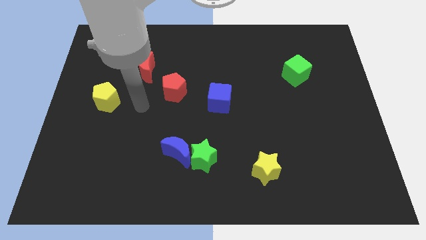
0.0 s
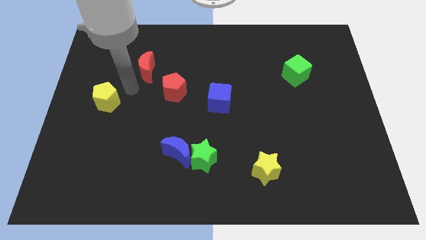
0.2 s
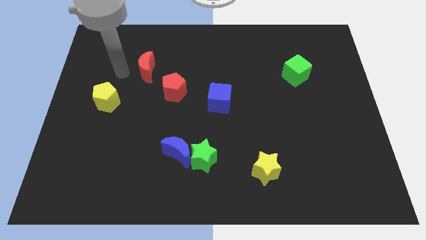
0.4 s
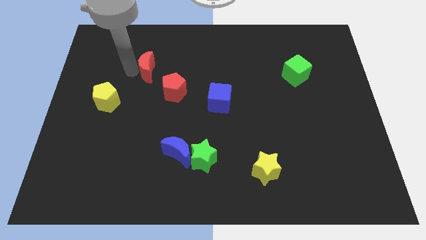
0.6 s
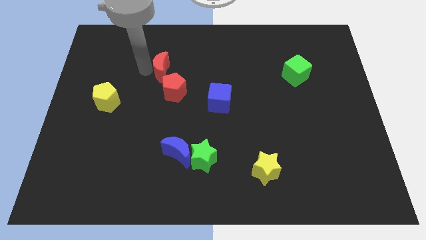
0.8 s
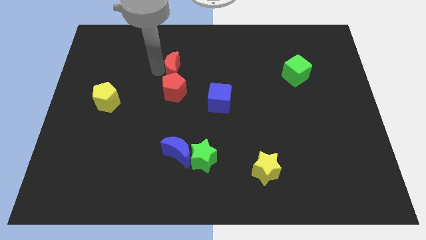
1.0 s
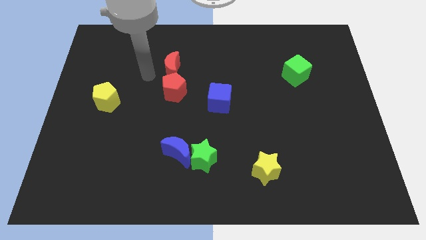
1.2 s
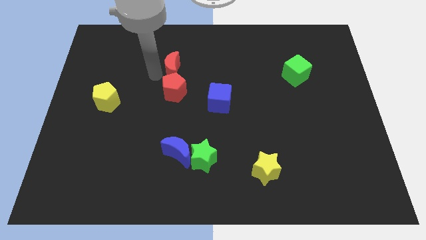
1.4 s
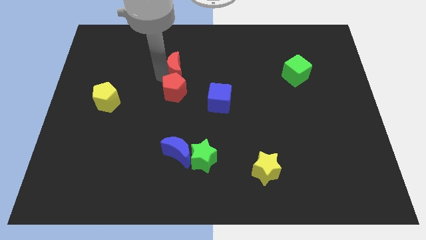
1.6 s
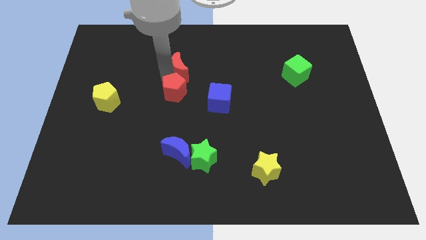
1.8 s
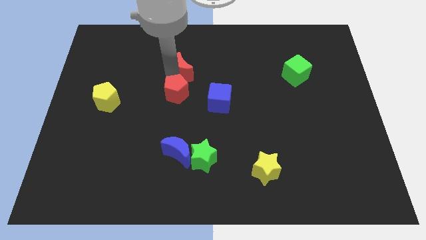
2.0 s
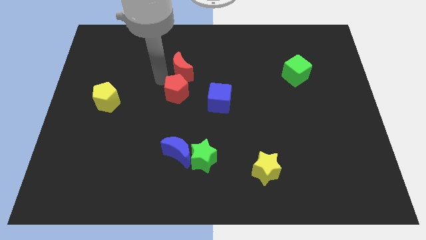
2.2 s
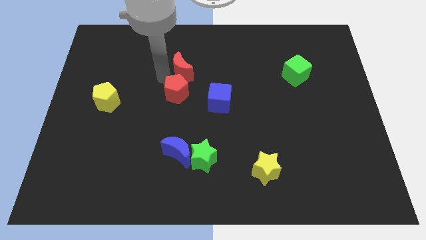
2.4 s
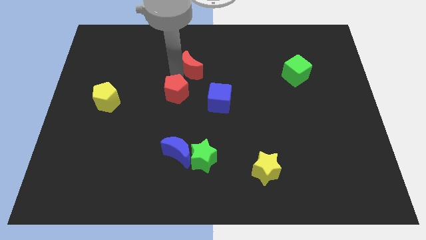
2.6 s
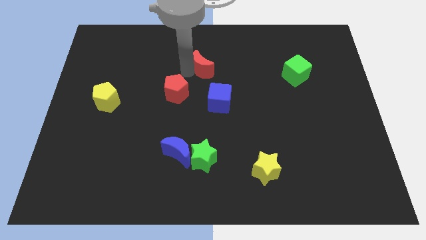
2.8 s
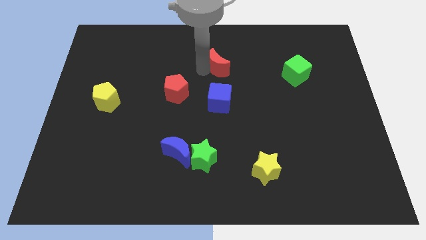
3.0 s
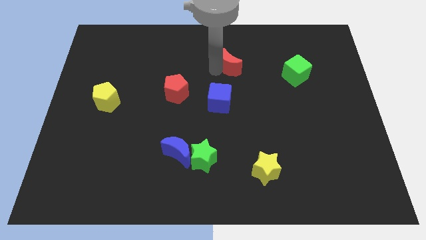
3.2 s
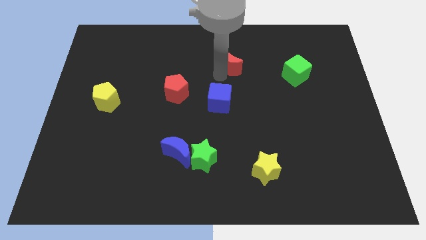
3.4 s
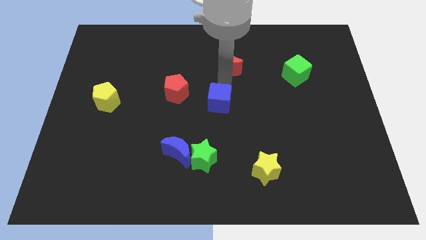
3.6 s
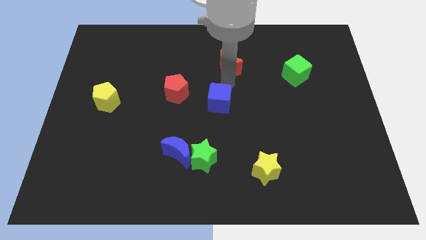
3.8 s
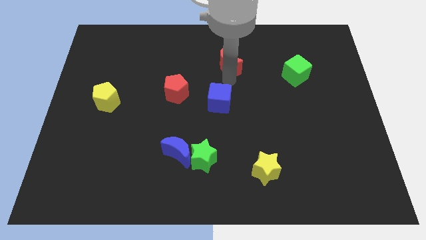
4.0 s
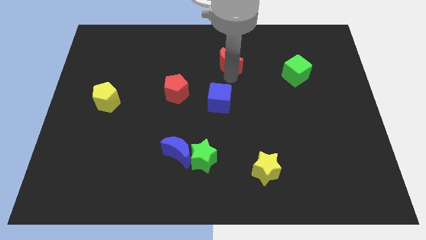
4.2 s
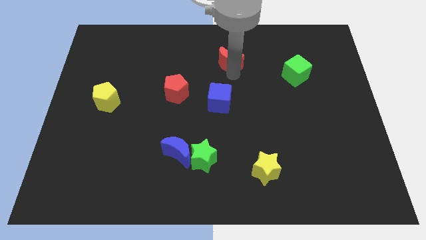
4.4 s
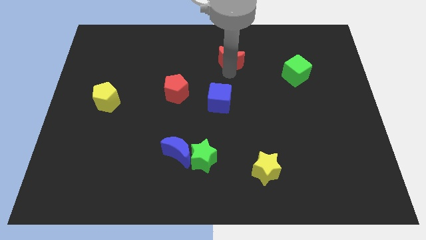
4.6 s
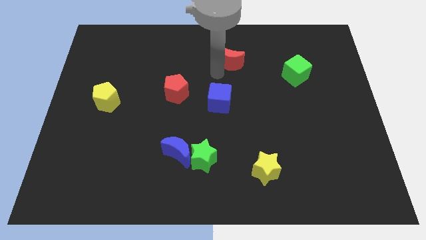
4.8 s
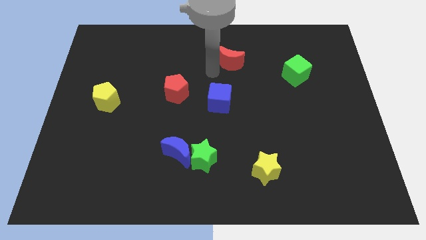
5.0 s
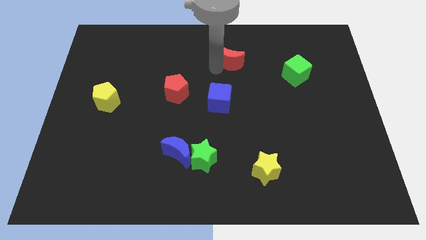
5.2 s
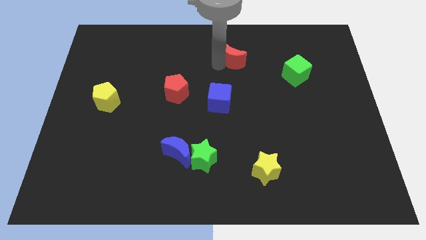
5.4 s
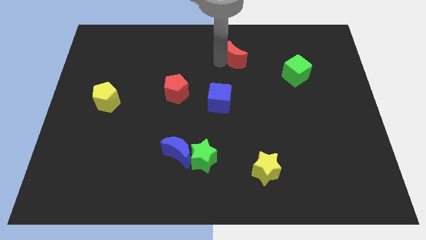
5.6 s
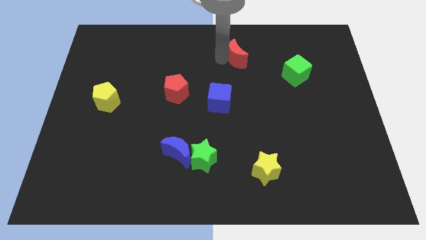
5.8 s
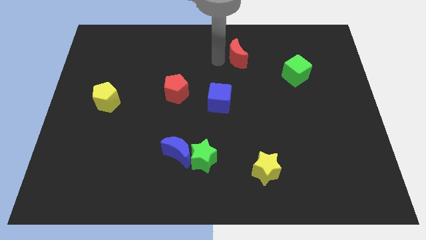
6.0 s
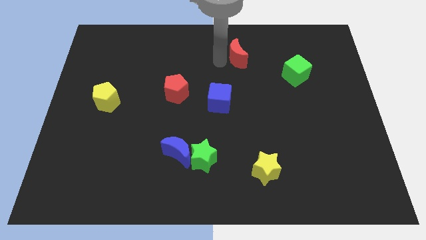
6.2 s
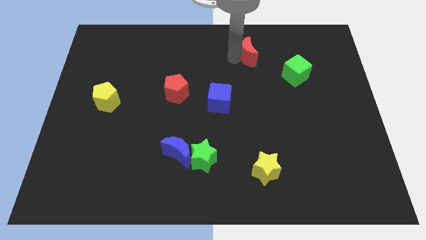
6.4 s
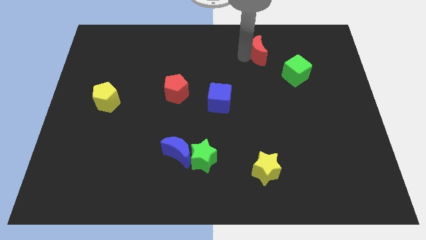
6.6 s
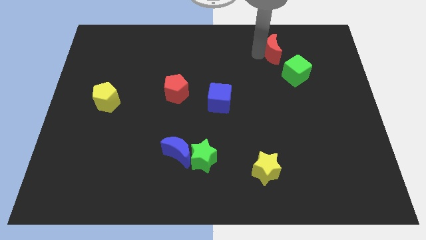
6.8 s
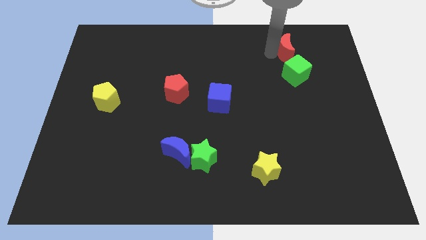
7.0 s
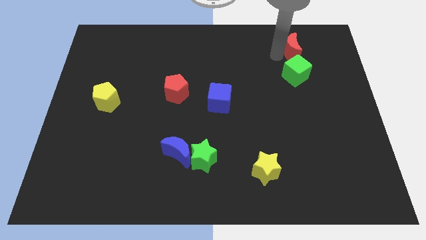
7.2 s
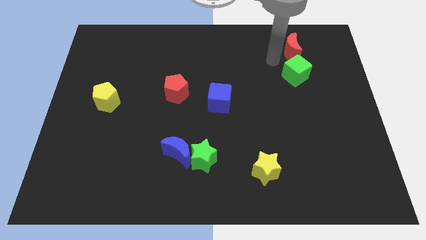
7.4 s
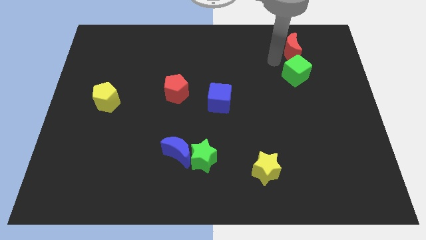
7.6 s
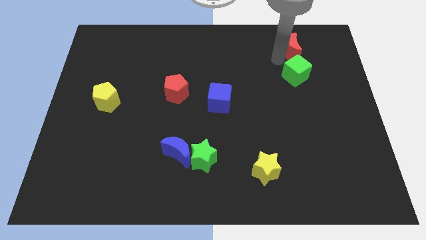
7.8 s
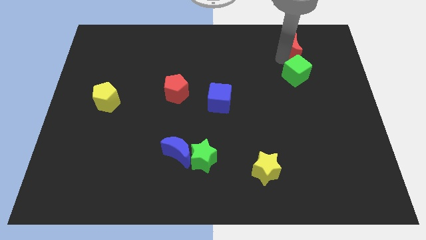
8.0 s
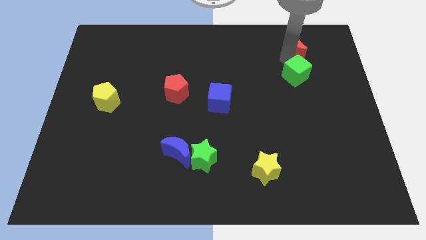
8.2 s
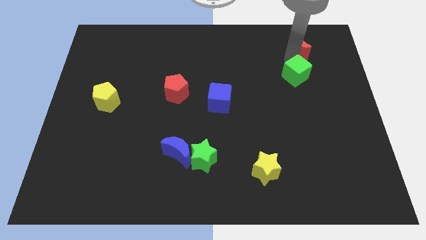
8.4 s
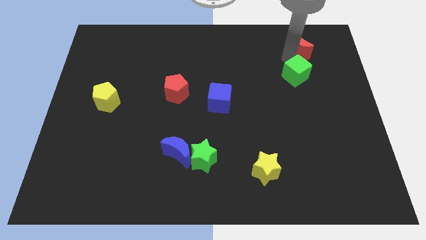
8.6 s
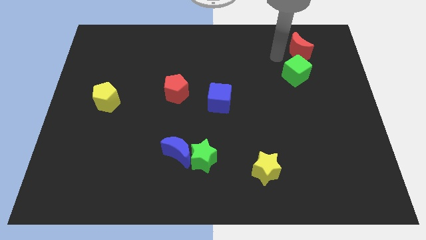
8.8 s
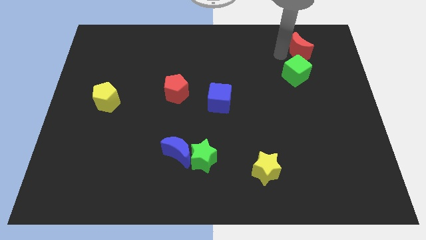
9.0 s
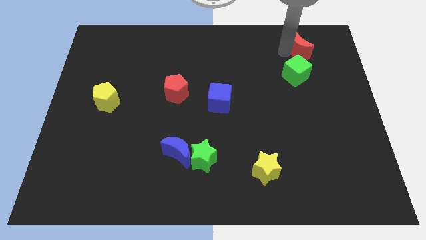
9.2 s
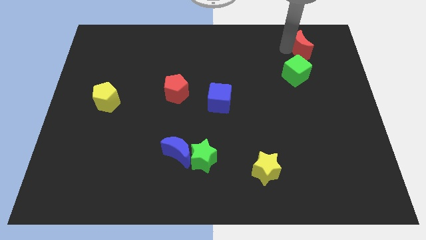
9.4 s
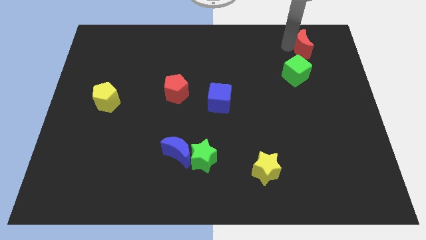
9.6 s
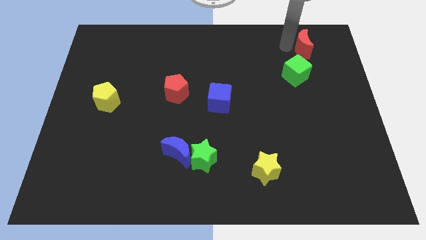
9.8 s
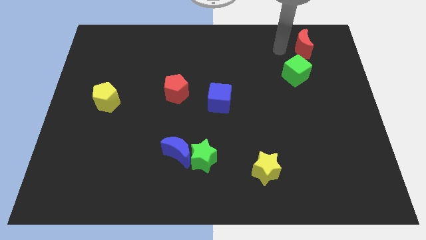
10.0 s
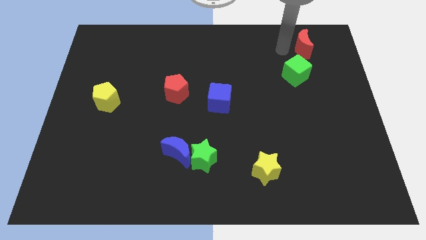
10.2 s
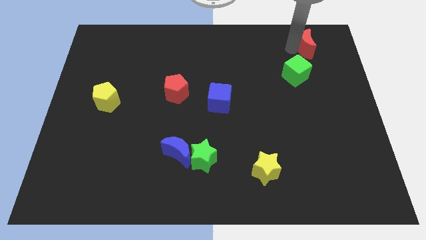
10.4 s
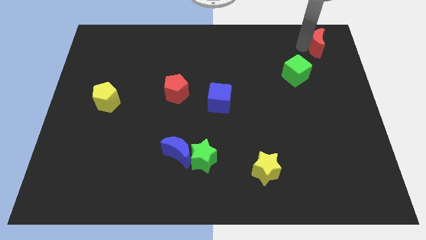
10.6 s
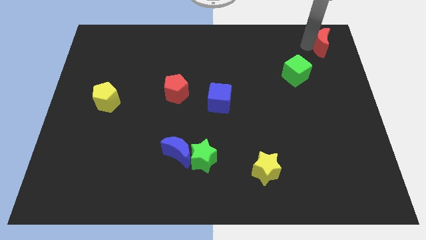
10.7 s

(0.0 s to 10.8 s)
slide the red moon to the top right corner

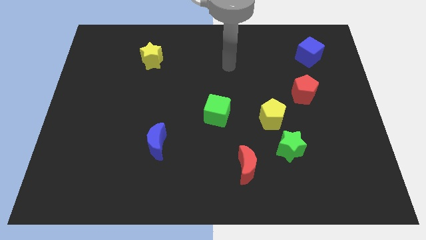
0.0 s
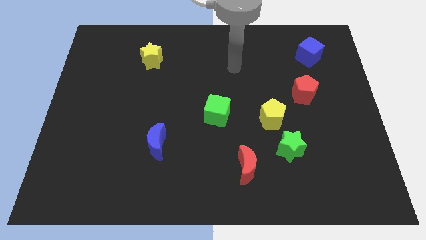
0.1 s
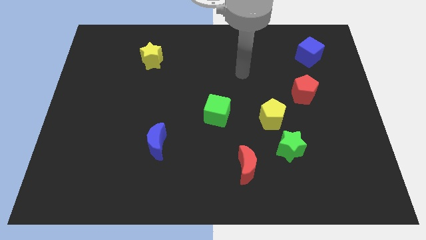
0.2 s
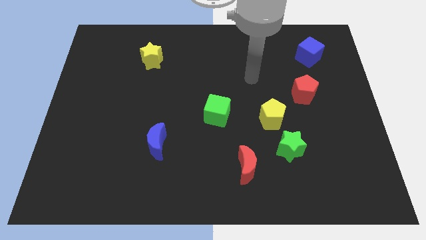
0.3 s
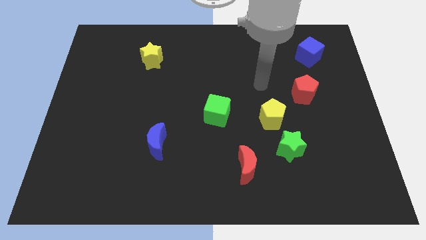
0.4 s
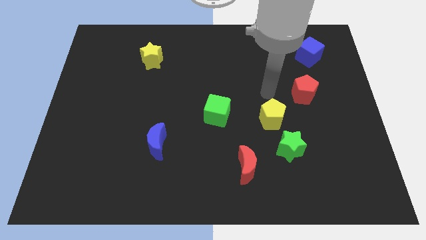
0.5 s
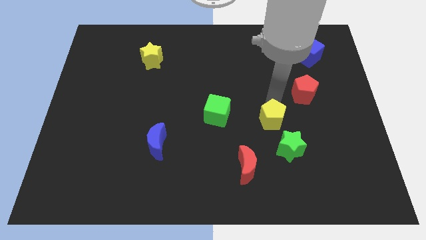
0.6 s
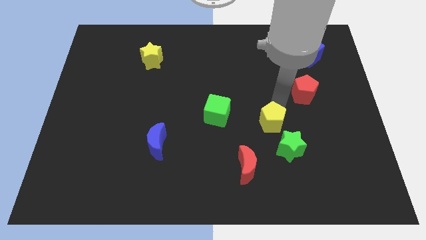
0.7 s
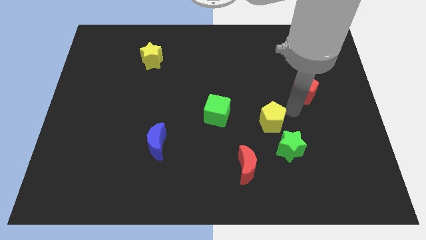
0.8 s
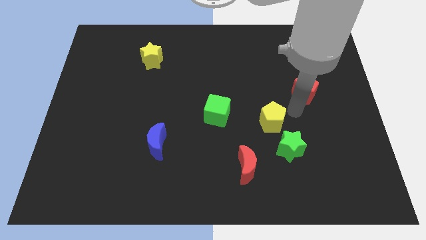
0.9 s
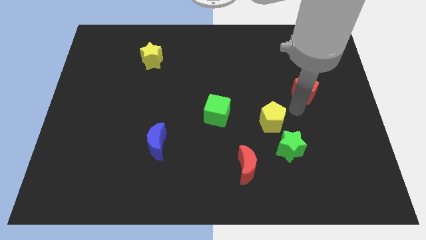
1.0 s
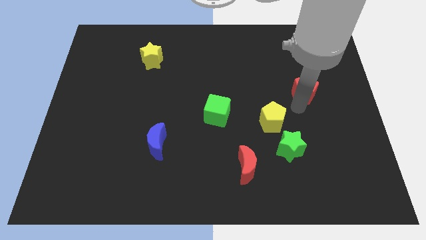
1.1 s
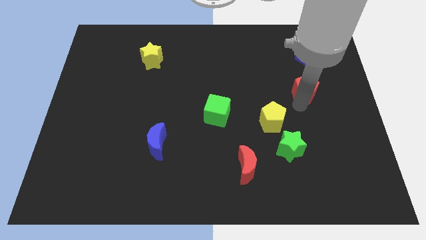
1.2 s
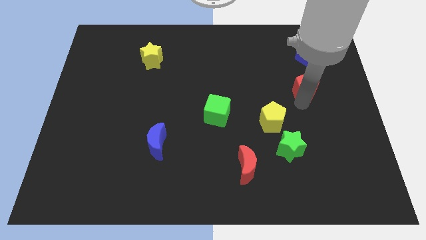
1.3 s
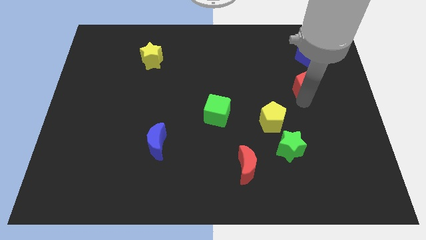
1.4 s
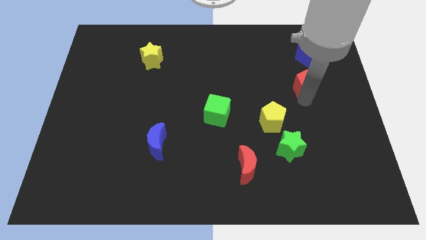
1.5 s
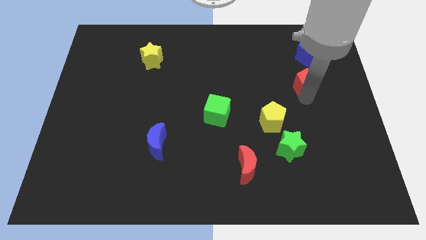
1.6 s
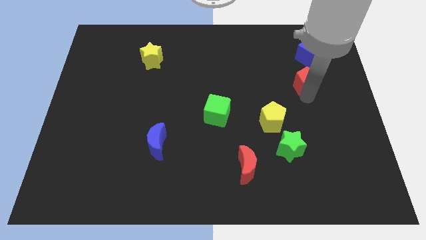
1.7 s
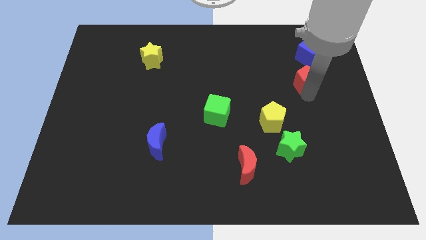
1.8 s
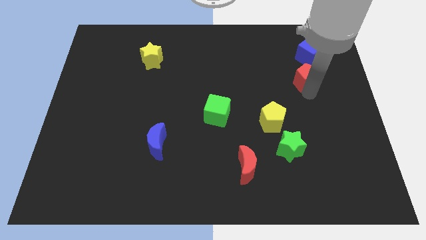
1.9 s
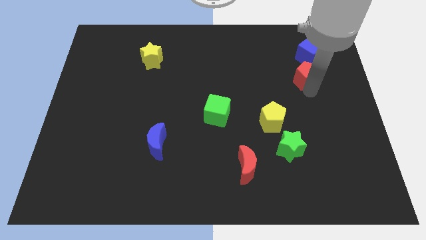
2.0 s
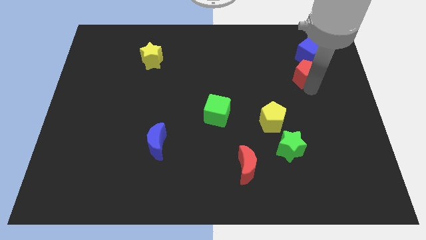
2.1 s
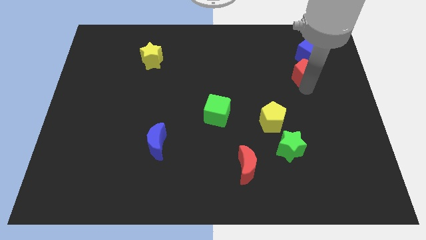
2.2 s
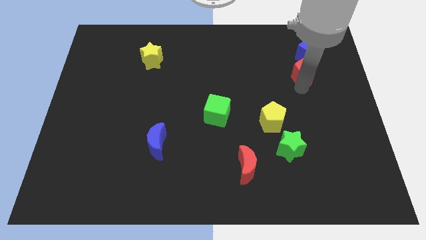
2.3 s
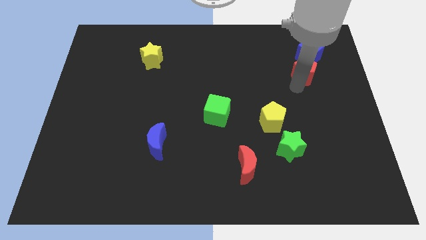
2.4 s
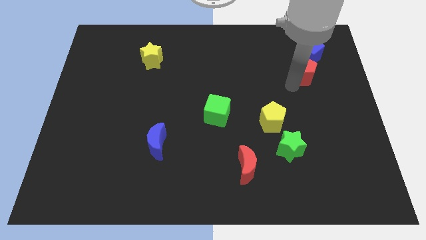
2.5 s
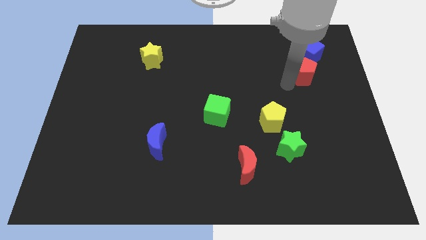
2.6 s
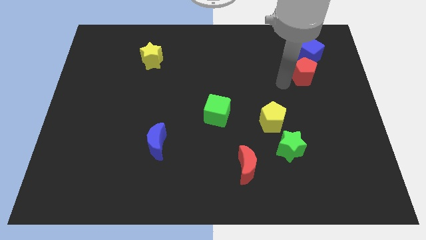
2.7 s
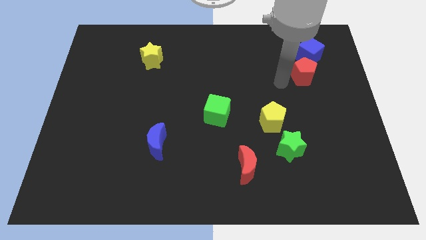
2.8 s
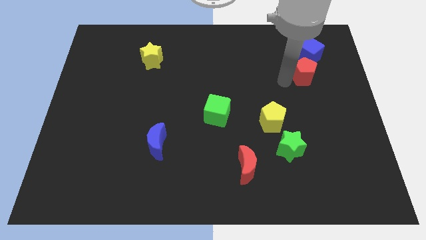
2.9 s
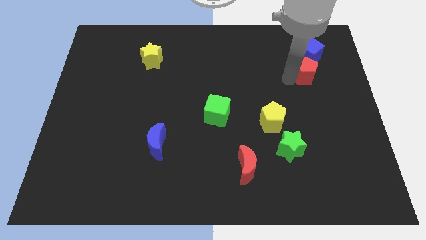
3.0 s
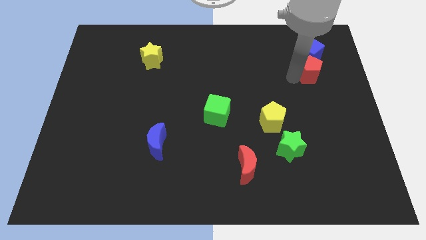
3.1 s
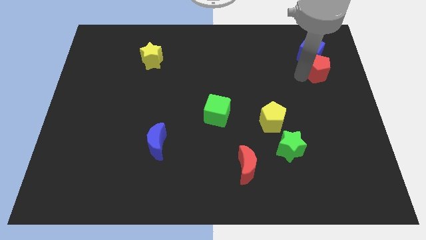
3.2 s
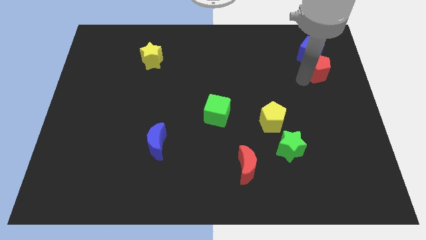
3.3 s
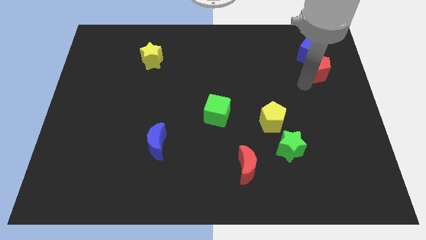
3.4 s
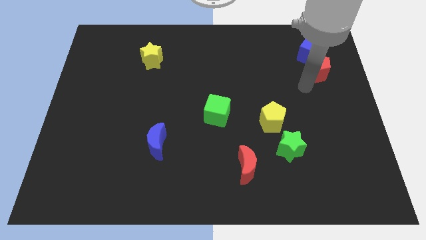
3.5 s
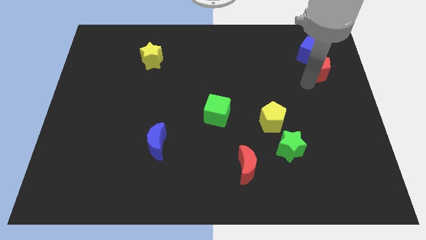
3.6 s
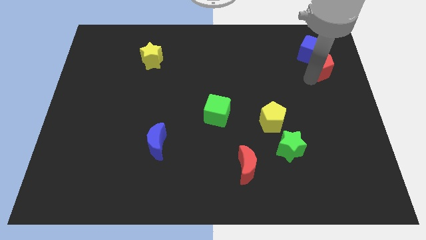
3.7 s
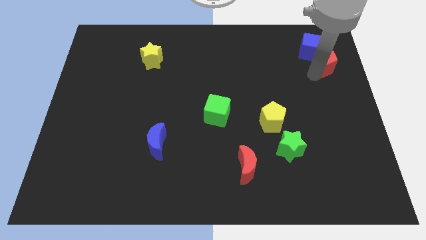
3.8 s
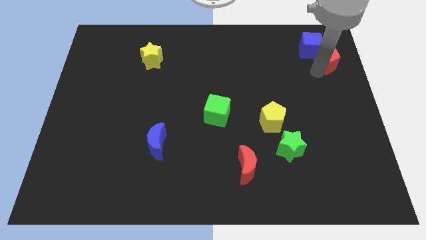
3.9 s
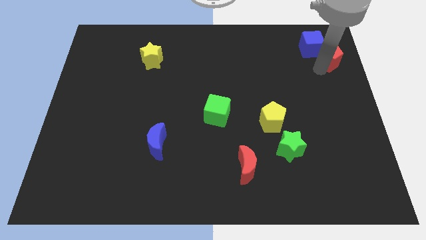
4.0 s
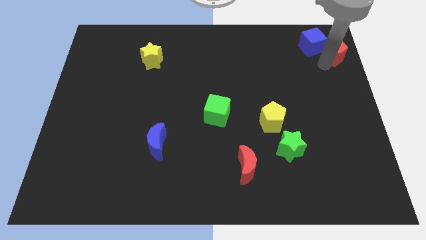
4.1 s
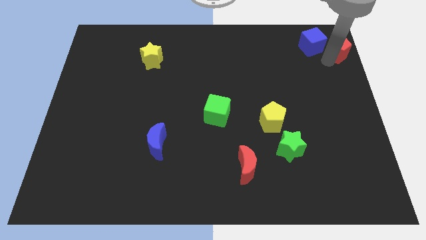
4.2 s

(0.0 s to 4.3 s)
put the red pentagon to the top right of the board
